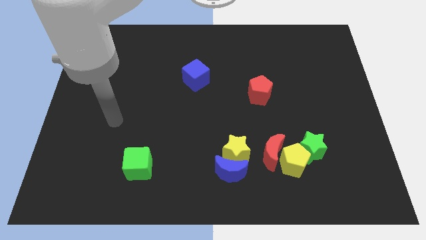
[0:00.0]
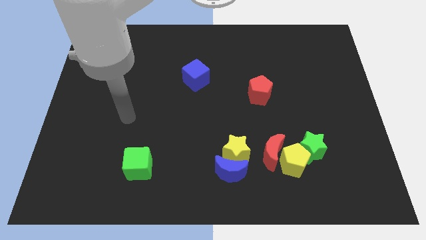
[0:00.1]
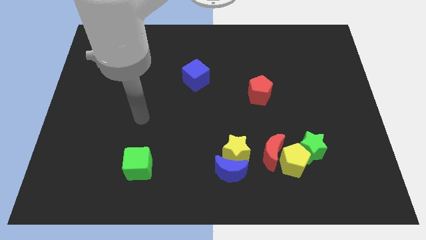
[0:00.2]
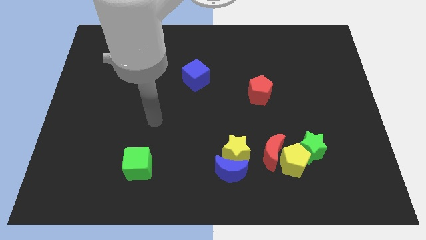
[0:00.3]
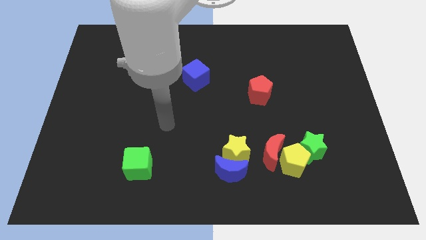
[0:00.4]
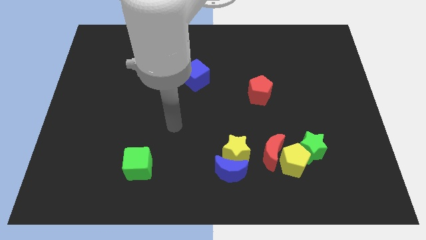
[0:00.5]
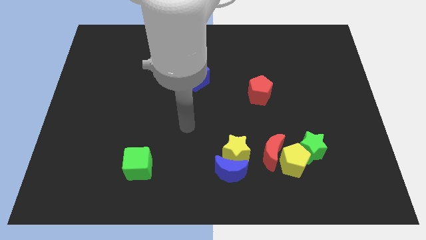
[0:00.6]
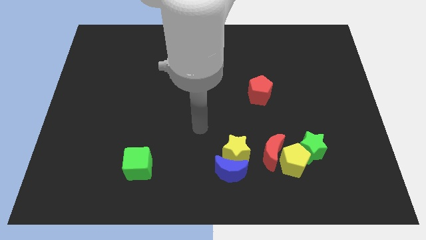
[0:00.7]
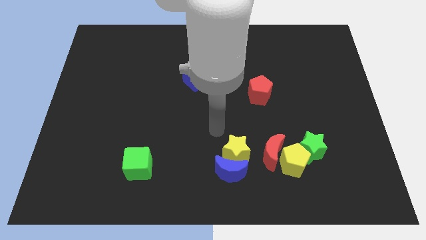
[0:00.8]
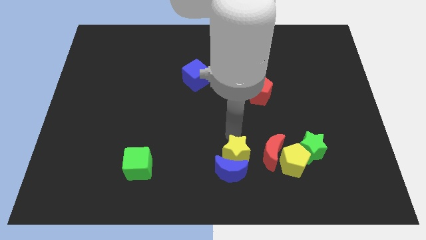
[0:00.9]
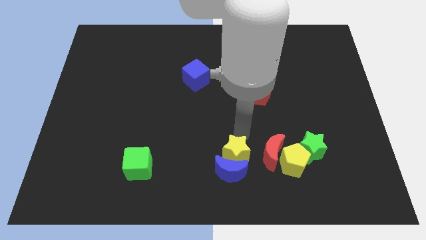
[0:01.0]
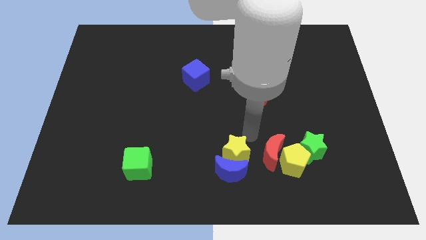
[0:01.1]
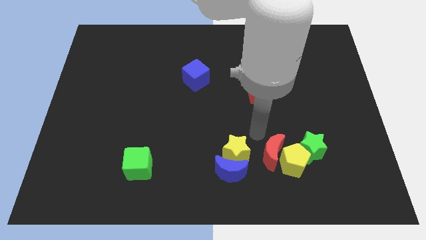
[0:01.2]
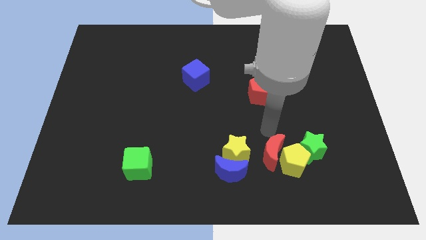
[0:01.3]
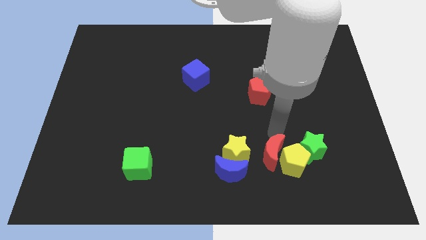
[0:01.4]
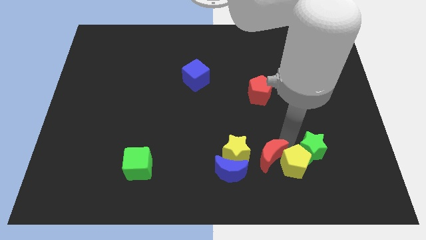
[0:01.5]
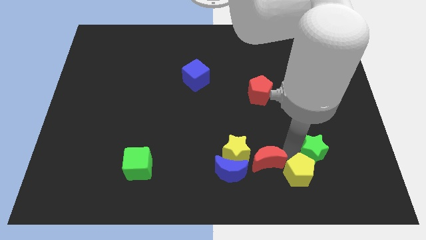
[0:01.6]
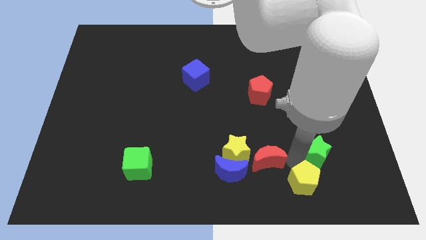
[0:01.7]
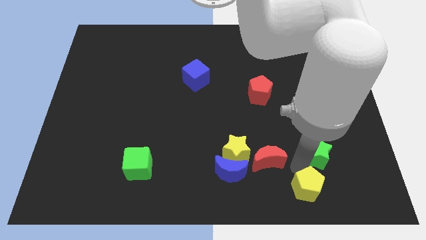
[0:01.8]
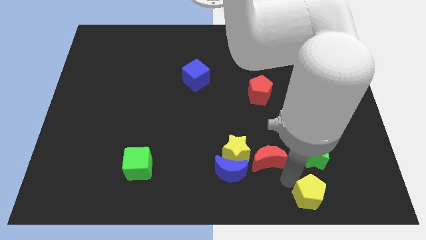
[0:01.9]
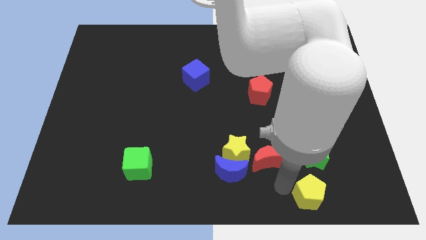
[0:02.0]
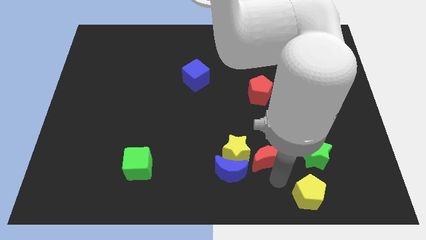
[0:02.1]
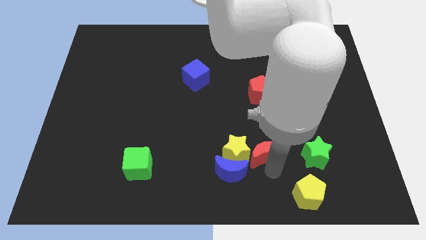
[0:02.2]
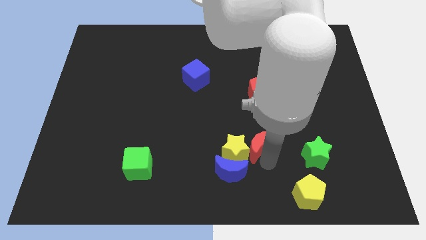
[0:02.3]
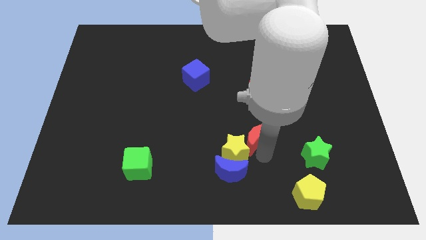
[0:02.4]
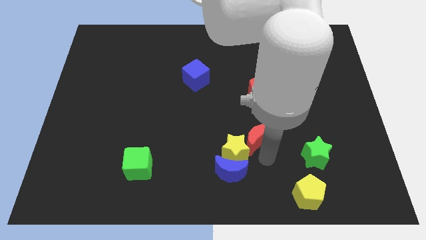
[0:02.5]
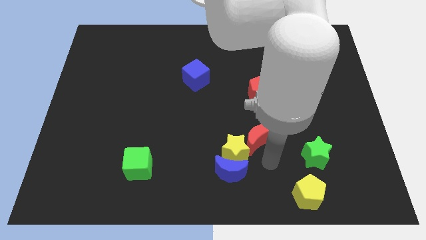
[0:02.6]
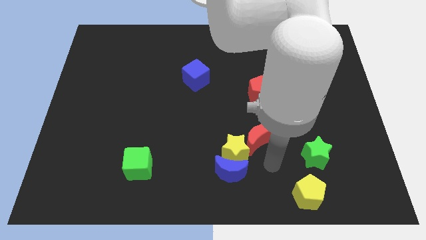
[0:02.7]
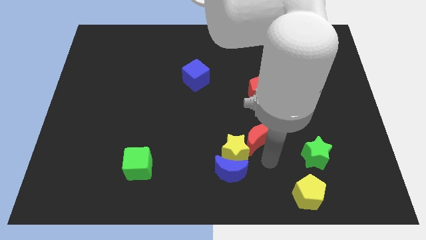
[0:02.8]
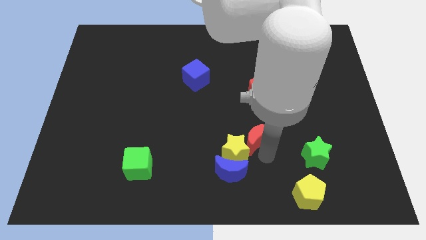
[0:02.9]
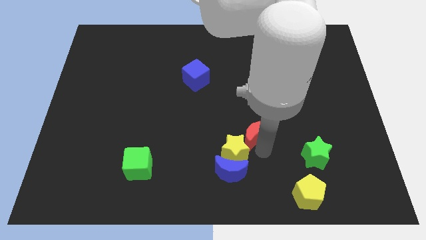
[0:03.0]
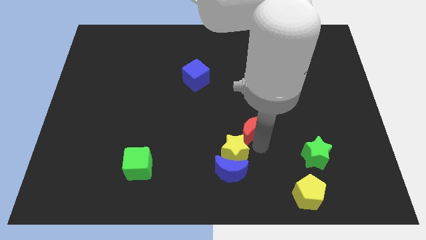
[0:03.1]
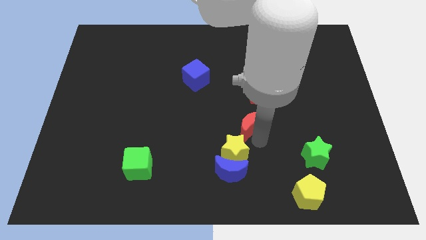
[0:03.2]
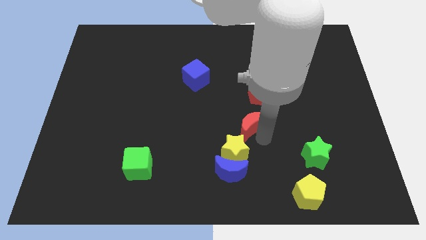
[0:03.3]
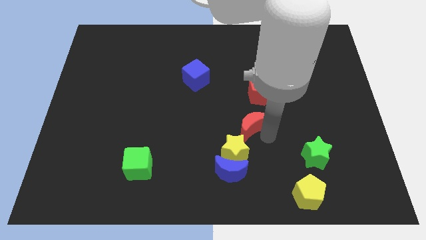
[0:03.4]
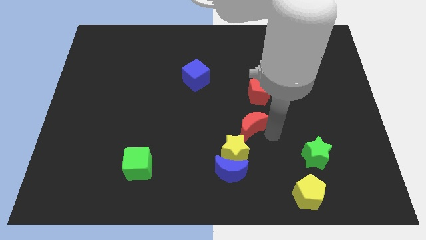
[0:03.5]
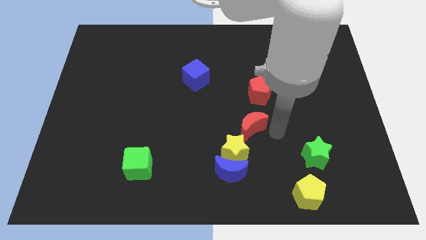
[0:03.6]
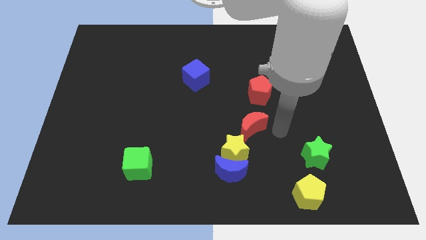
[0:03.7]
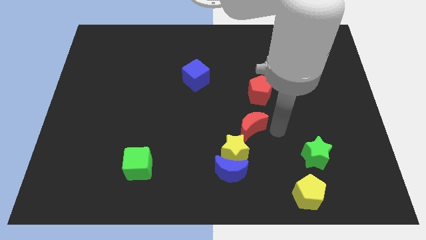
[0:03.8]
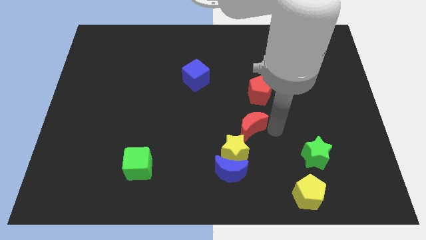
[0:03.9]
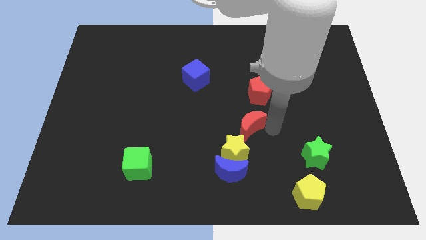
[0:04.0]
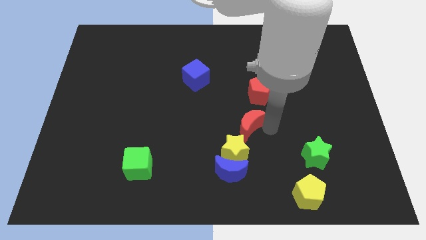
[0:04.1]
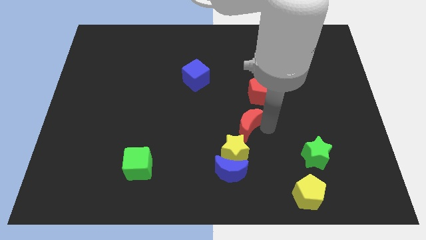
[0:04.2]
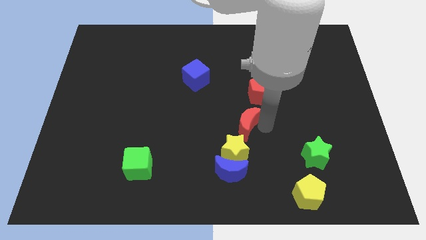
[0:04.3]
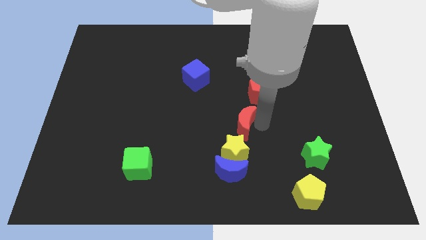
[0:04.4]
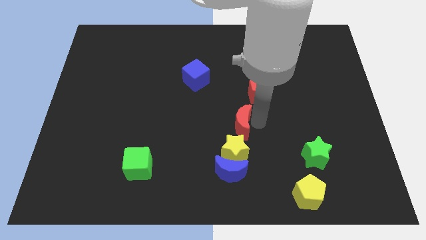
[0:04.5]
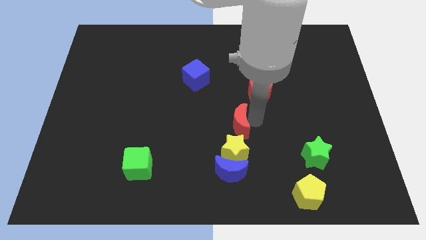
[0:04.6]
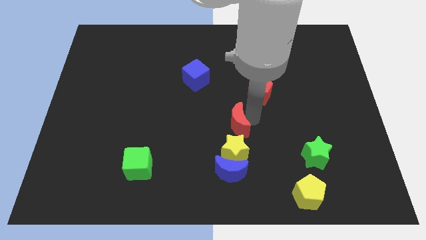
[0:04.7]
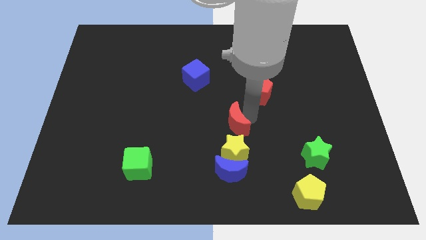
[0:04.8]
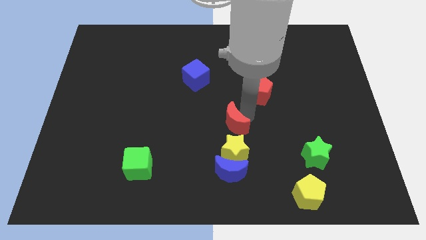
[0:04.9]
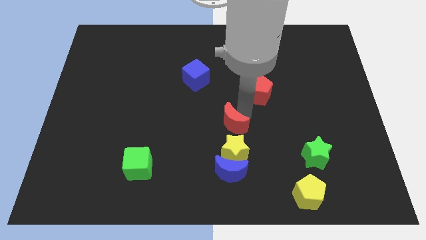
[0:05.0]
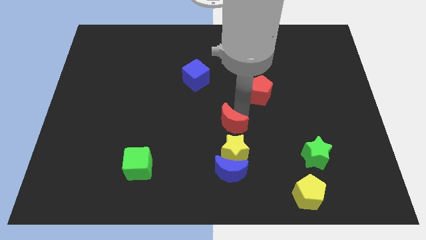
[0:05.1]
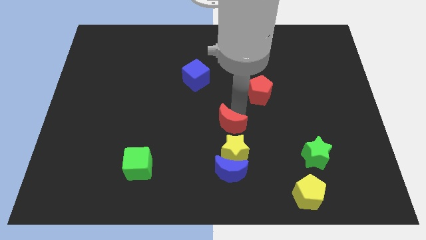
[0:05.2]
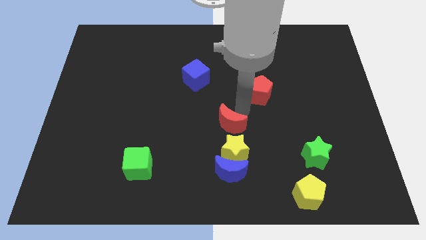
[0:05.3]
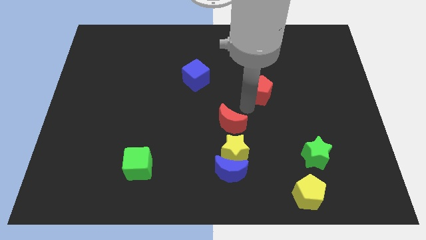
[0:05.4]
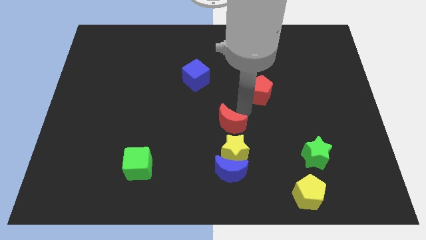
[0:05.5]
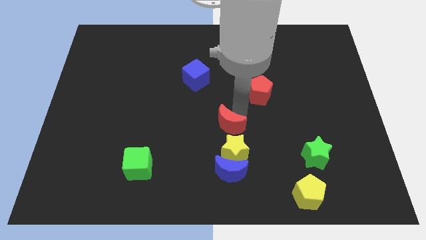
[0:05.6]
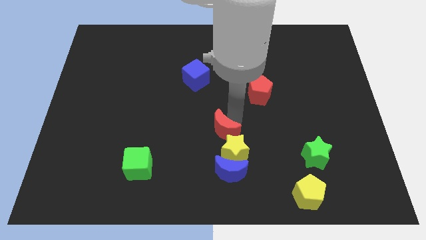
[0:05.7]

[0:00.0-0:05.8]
slightly push the red moon to the left

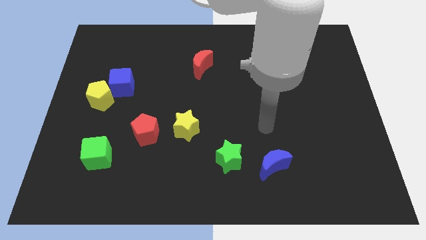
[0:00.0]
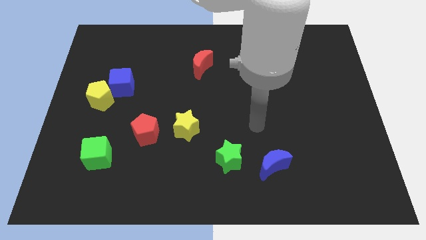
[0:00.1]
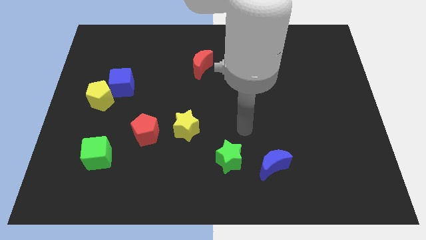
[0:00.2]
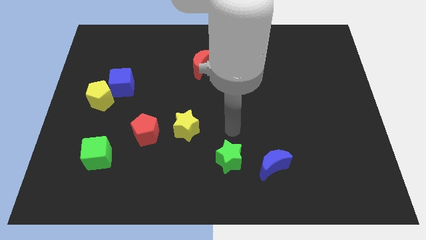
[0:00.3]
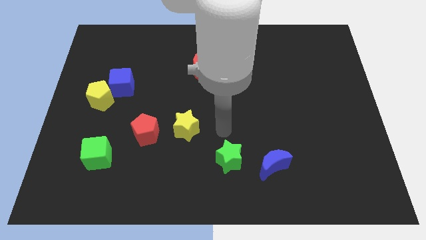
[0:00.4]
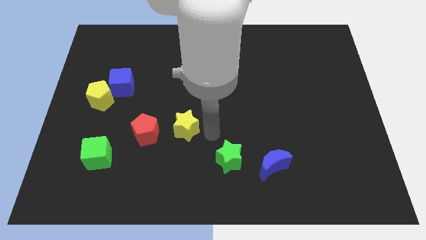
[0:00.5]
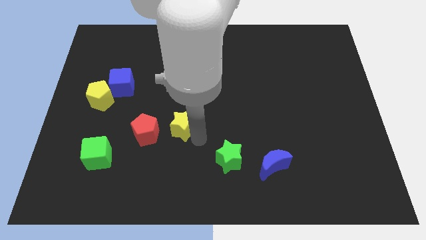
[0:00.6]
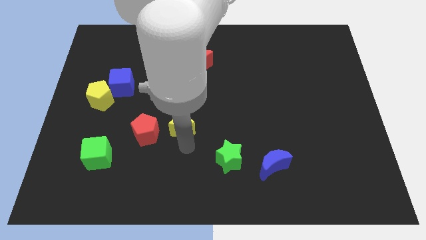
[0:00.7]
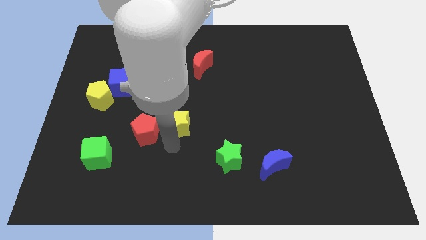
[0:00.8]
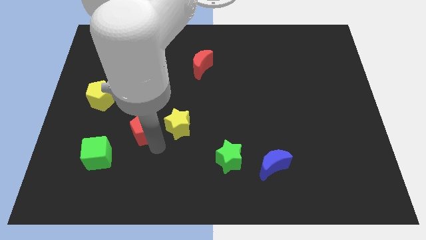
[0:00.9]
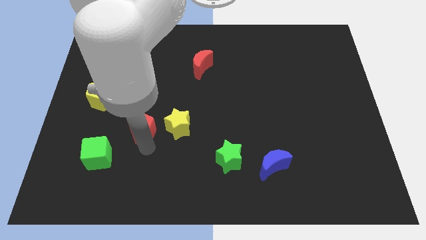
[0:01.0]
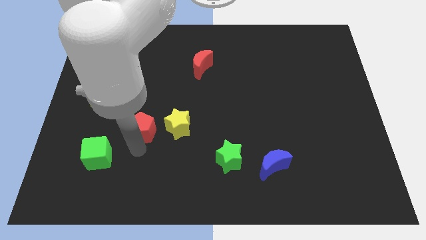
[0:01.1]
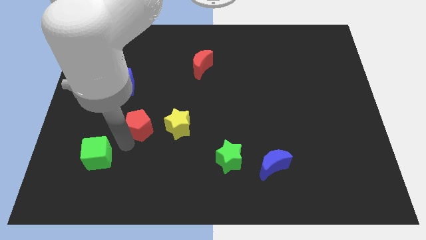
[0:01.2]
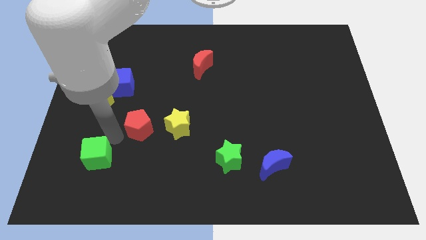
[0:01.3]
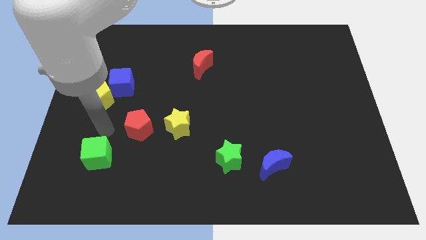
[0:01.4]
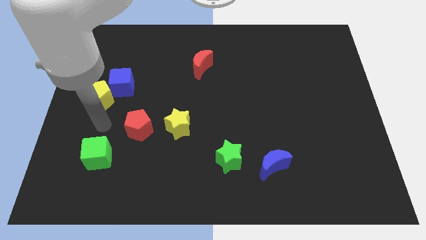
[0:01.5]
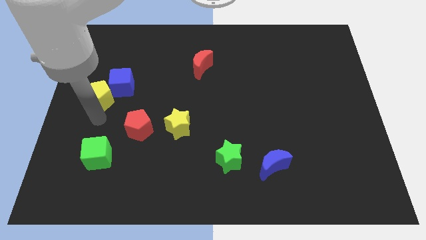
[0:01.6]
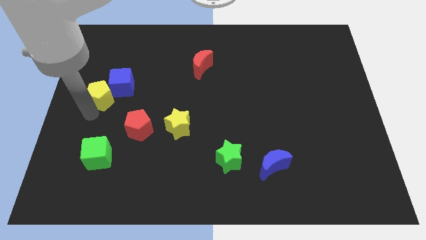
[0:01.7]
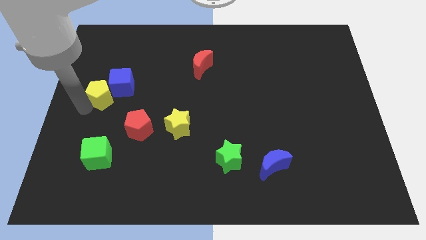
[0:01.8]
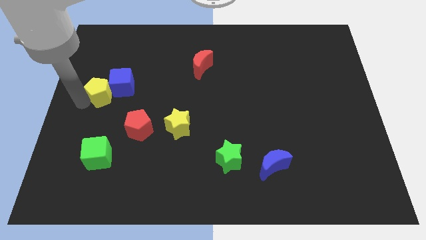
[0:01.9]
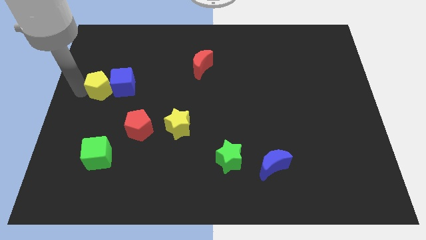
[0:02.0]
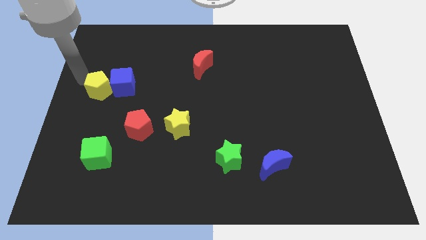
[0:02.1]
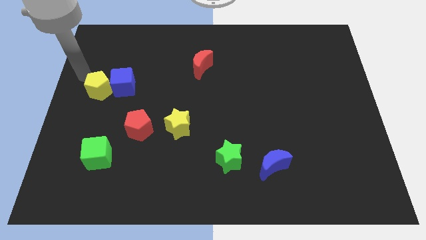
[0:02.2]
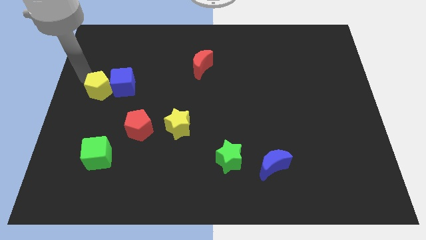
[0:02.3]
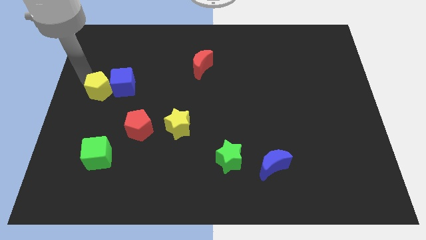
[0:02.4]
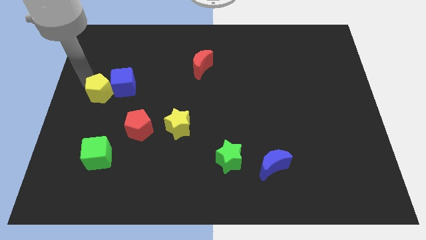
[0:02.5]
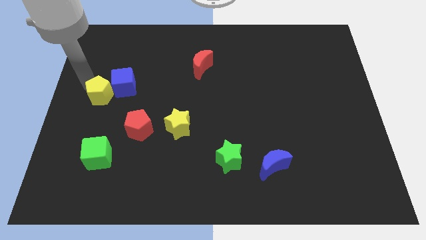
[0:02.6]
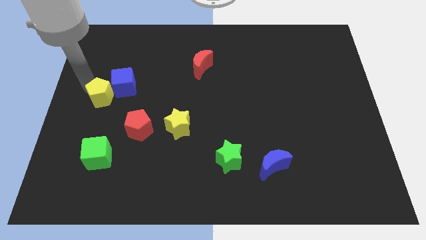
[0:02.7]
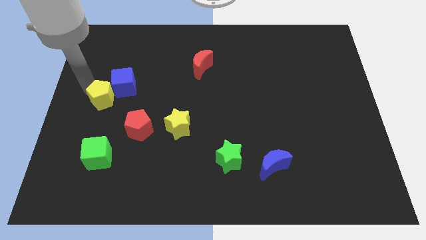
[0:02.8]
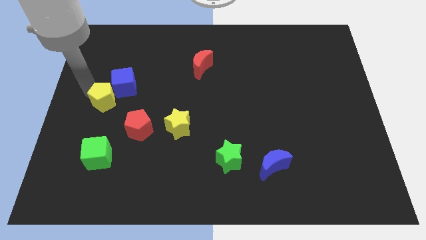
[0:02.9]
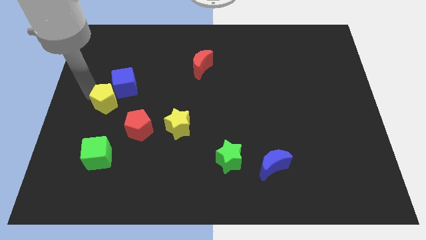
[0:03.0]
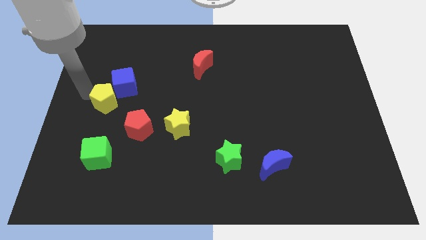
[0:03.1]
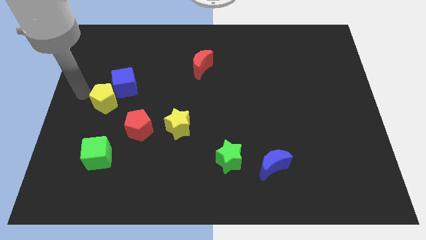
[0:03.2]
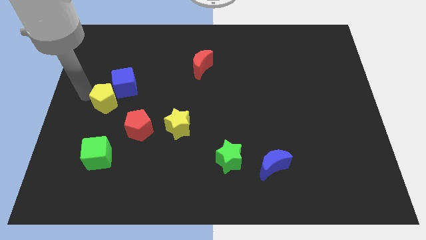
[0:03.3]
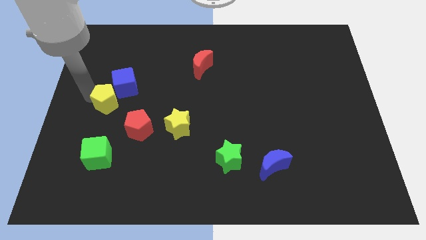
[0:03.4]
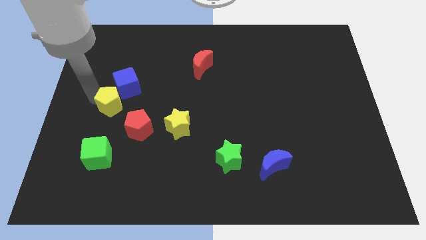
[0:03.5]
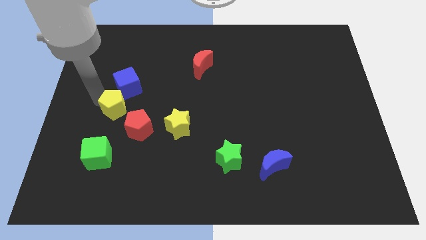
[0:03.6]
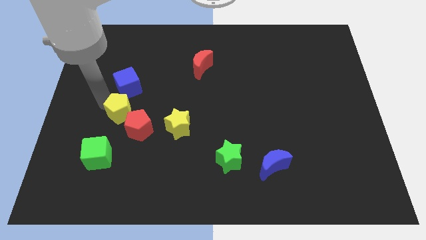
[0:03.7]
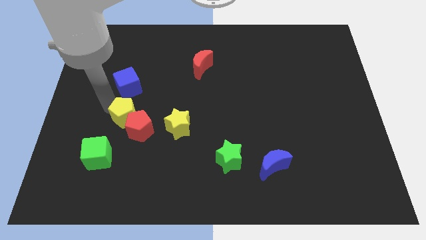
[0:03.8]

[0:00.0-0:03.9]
slightly move the yellow pentagon down and right
